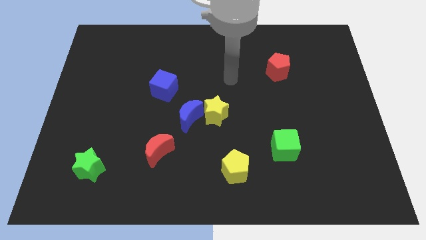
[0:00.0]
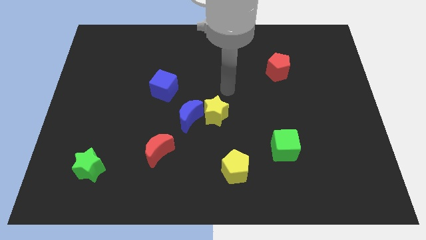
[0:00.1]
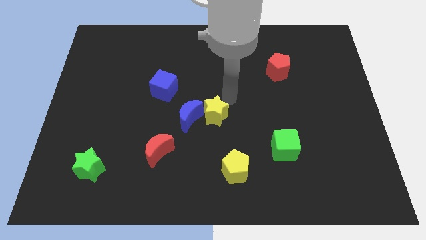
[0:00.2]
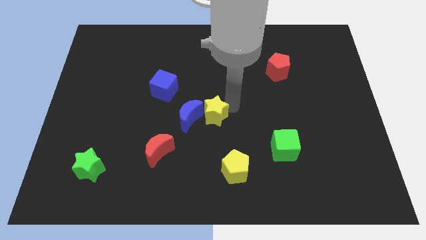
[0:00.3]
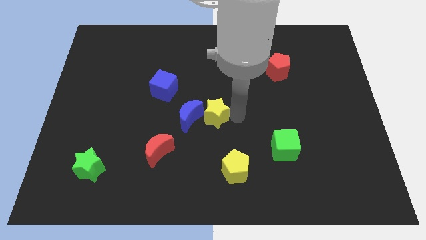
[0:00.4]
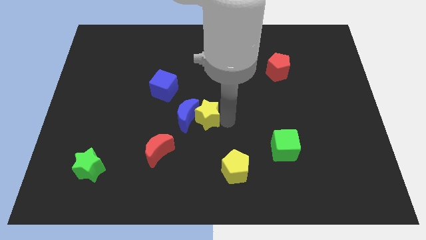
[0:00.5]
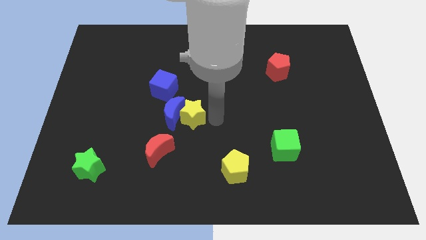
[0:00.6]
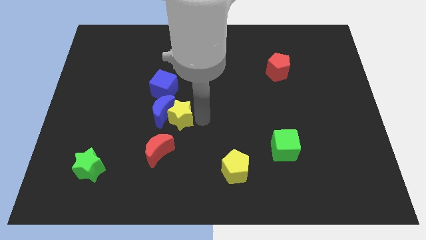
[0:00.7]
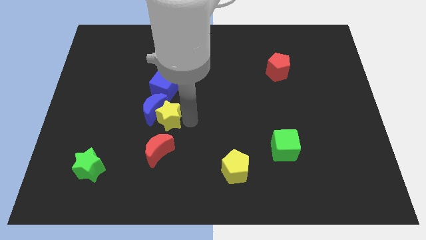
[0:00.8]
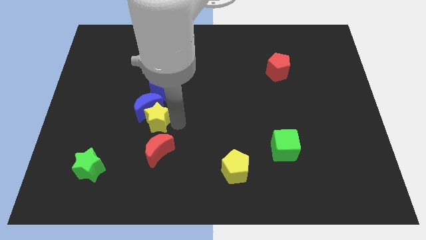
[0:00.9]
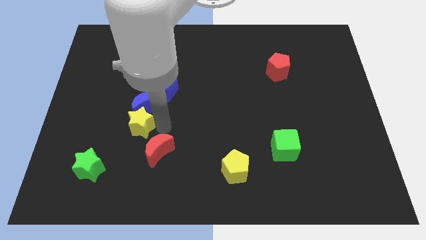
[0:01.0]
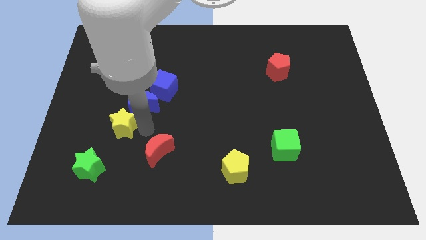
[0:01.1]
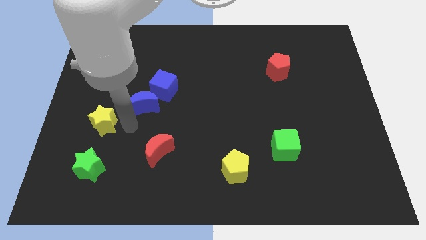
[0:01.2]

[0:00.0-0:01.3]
move the blue moon away from the yellow star

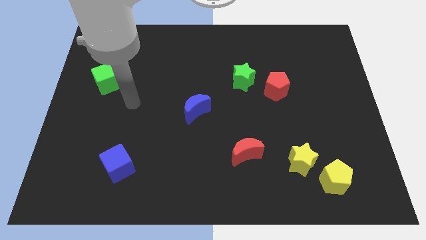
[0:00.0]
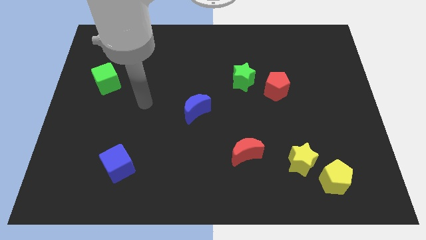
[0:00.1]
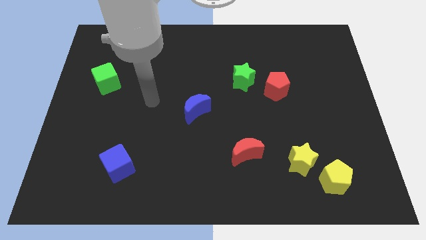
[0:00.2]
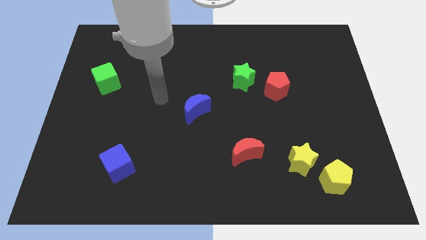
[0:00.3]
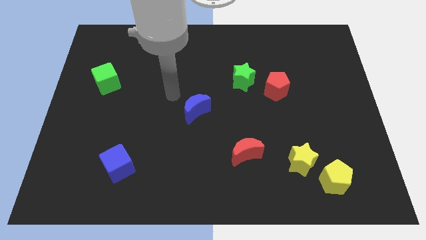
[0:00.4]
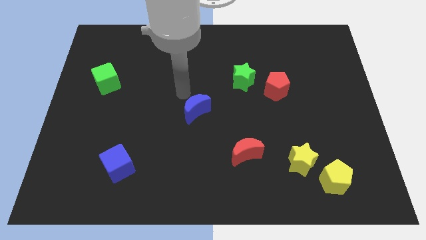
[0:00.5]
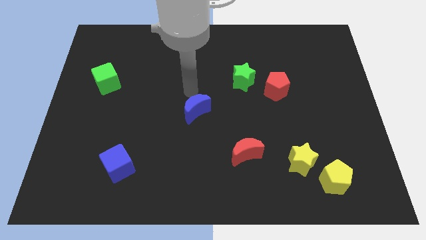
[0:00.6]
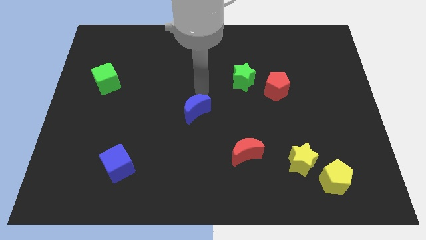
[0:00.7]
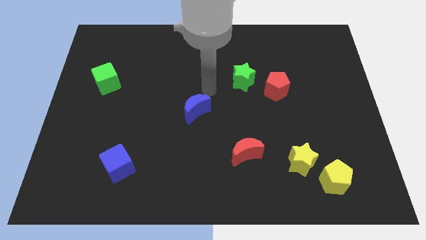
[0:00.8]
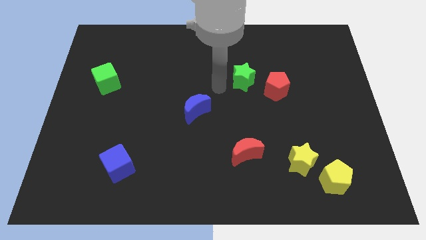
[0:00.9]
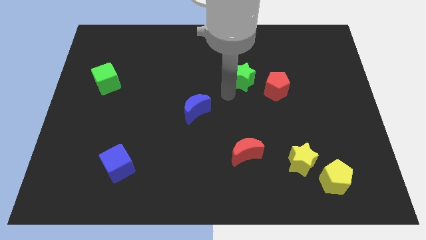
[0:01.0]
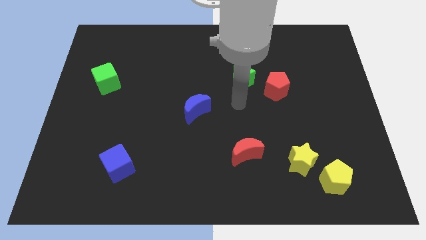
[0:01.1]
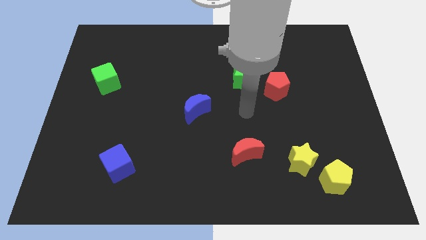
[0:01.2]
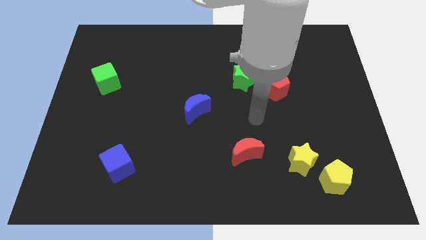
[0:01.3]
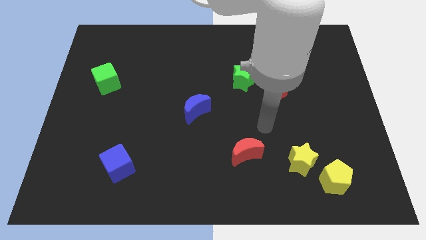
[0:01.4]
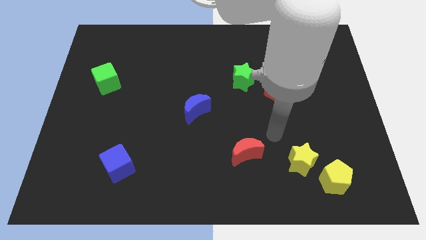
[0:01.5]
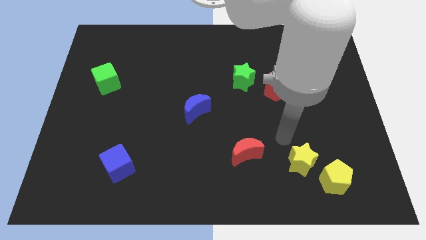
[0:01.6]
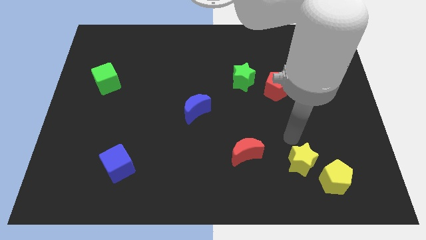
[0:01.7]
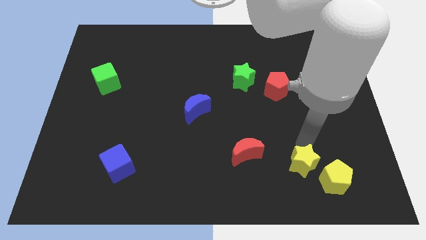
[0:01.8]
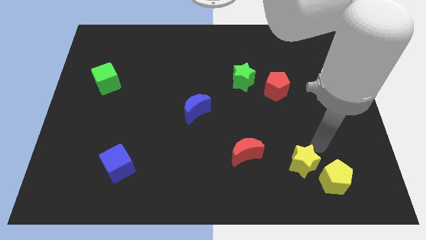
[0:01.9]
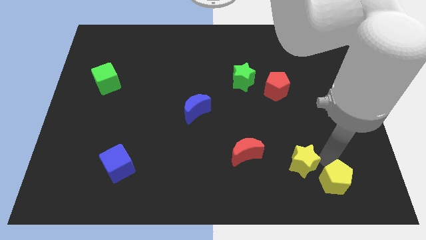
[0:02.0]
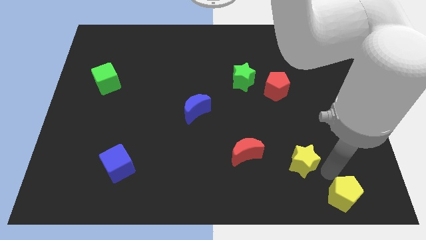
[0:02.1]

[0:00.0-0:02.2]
move the yellow star away from the yellow pentagon

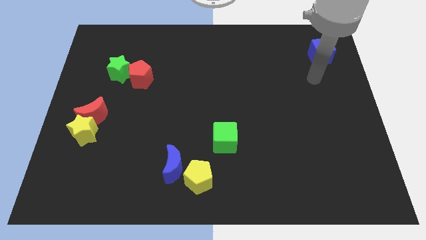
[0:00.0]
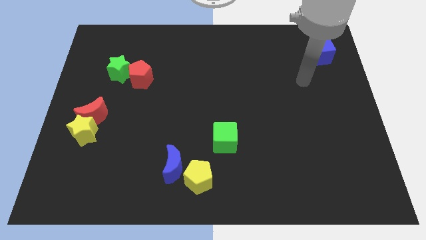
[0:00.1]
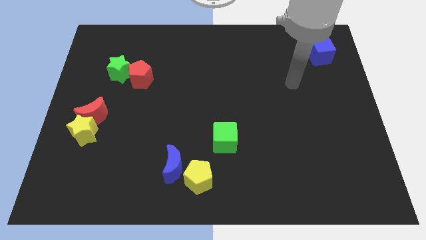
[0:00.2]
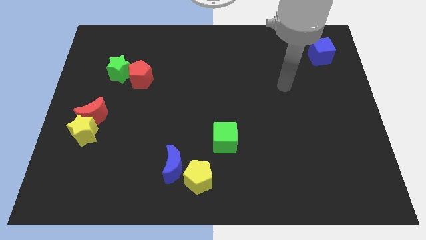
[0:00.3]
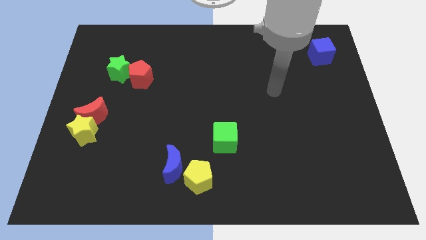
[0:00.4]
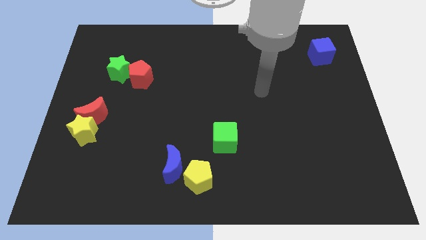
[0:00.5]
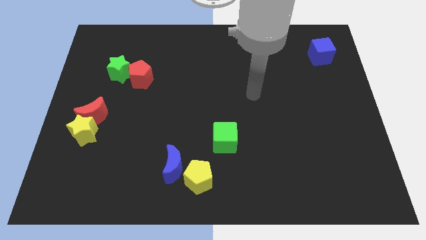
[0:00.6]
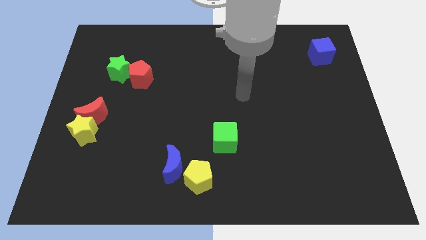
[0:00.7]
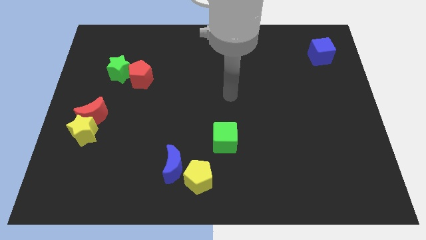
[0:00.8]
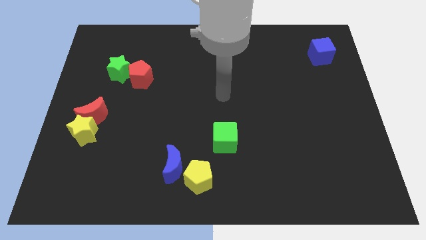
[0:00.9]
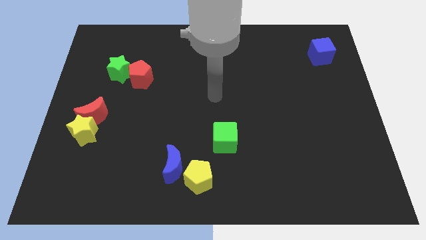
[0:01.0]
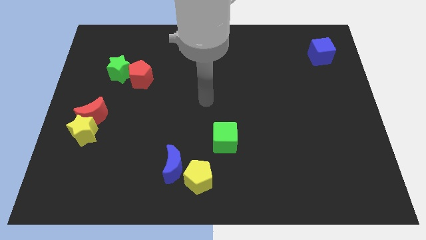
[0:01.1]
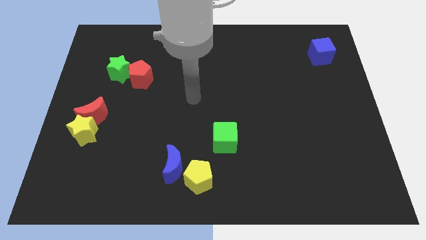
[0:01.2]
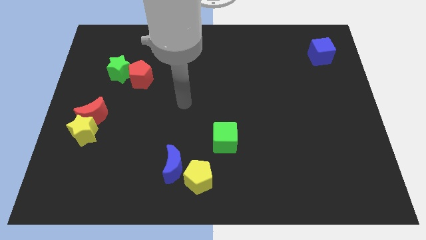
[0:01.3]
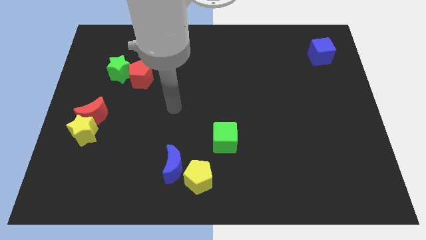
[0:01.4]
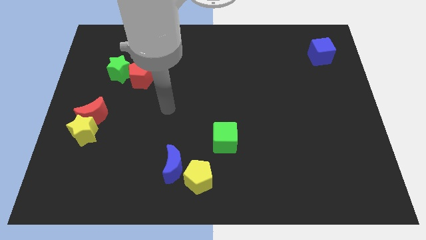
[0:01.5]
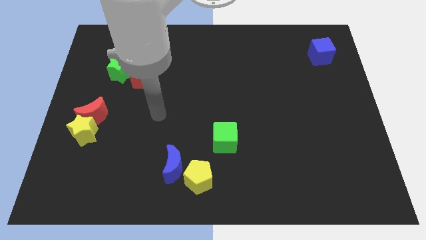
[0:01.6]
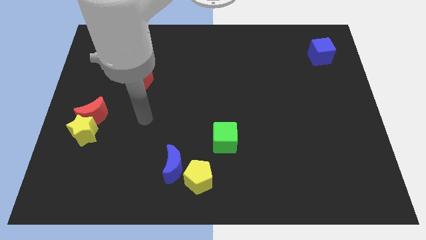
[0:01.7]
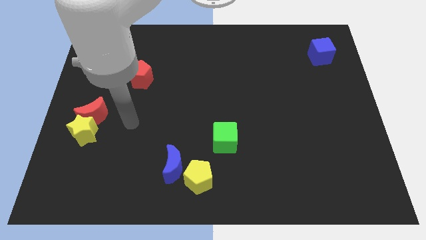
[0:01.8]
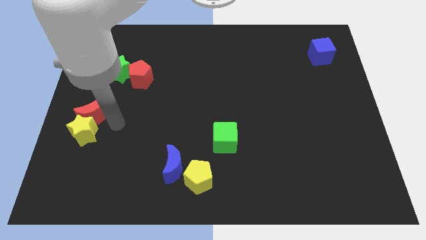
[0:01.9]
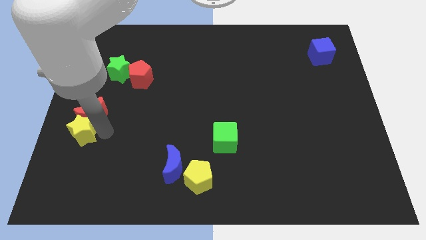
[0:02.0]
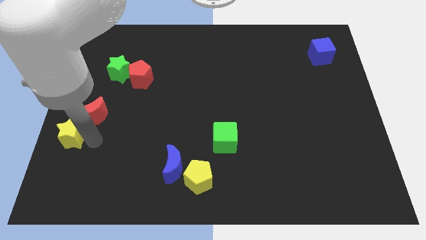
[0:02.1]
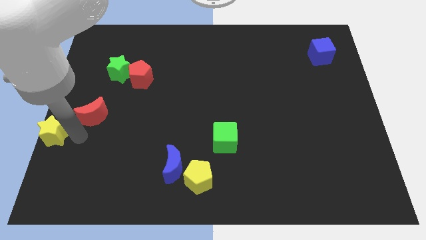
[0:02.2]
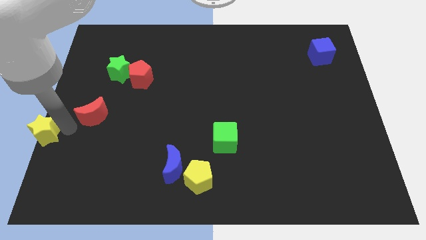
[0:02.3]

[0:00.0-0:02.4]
separate the red moon from the yellow star

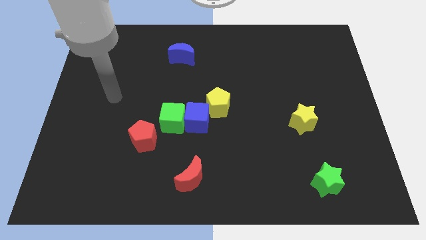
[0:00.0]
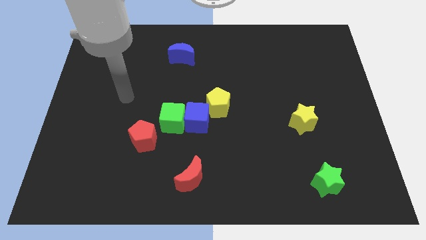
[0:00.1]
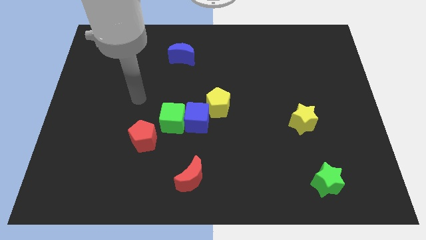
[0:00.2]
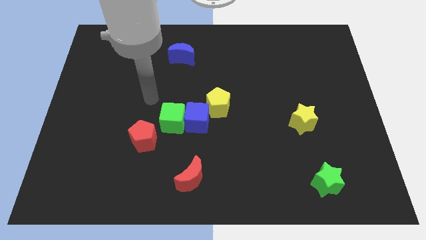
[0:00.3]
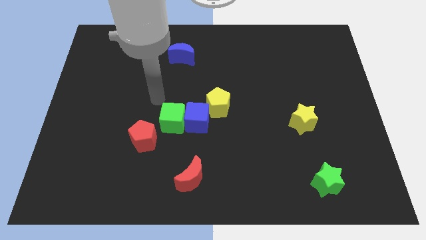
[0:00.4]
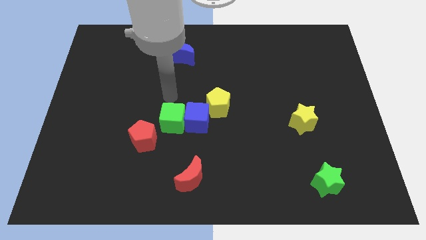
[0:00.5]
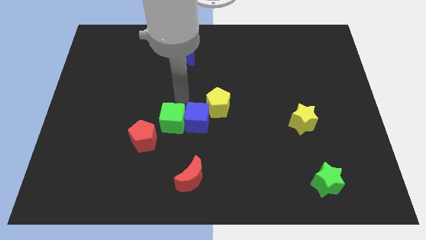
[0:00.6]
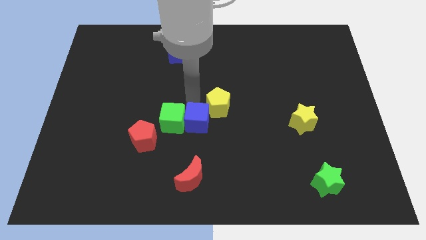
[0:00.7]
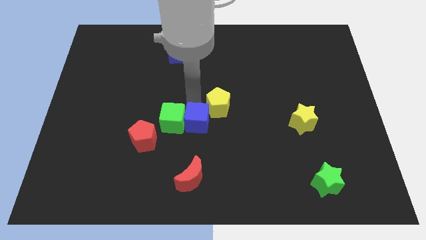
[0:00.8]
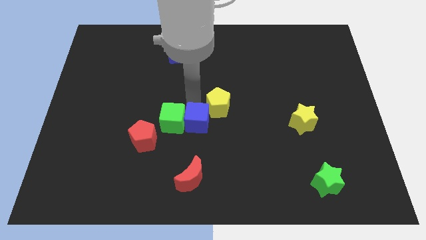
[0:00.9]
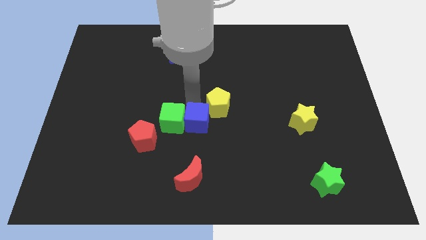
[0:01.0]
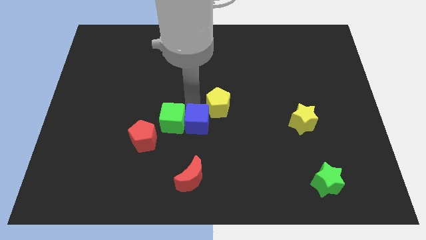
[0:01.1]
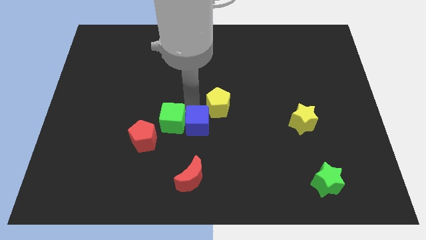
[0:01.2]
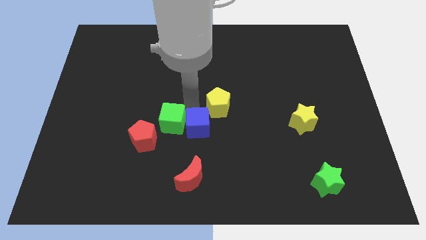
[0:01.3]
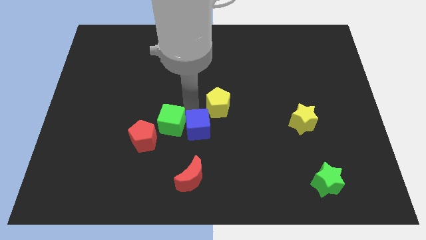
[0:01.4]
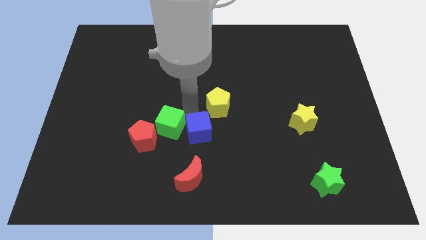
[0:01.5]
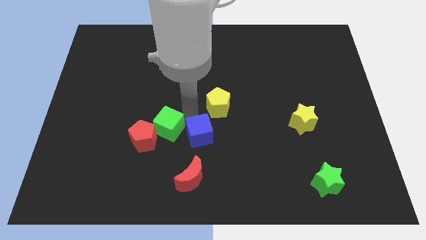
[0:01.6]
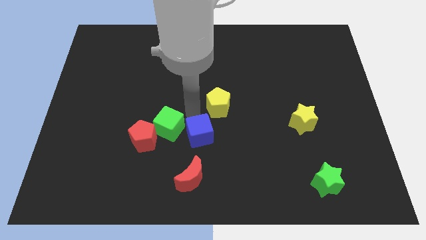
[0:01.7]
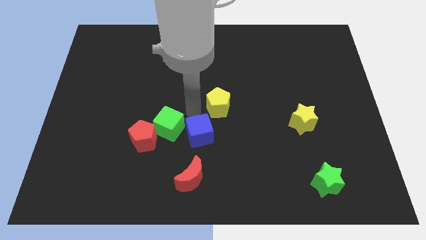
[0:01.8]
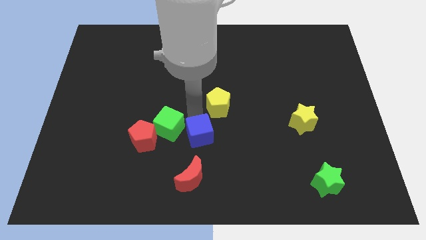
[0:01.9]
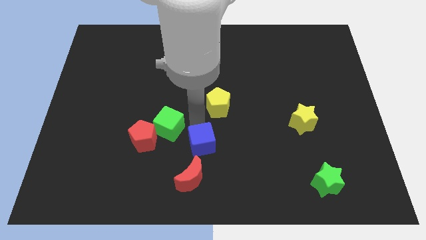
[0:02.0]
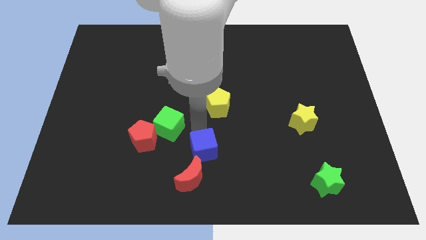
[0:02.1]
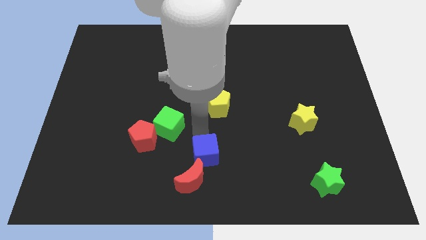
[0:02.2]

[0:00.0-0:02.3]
pull the blue cube apart from the green cube and yellow pentagon

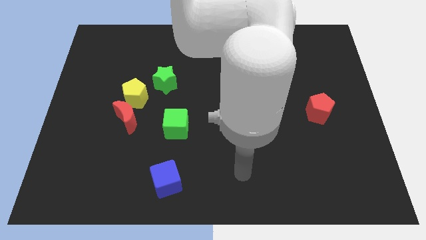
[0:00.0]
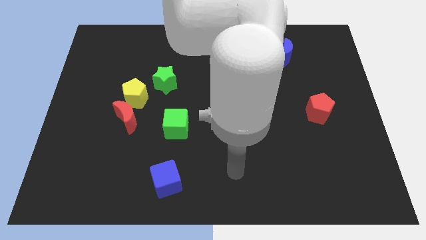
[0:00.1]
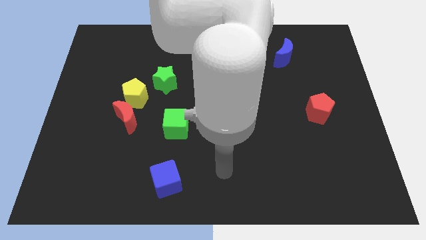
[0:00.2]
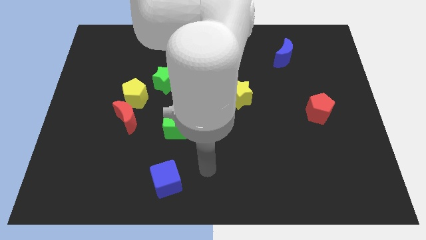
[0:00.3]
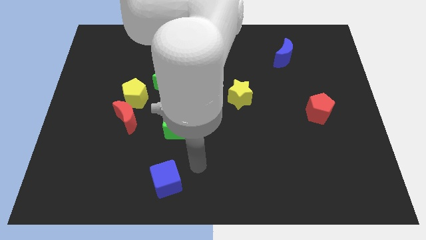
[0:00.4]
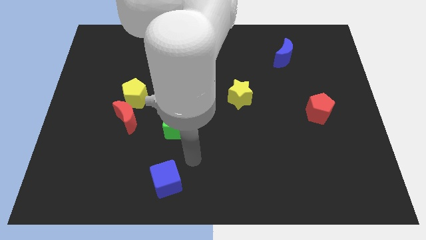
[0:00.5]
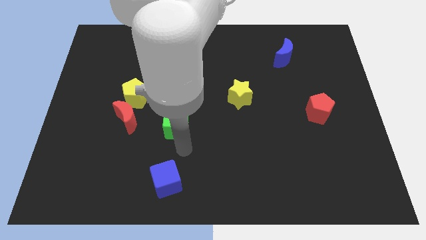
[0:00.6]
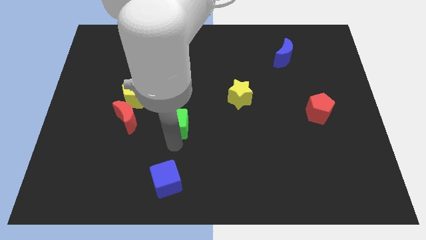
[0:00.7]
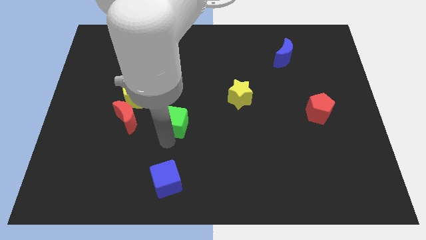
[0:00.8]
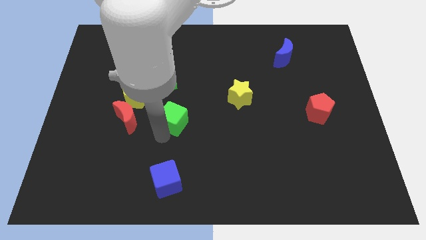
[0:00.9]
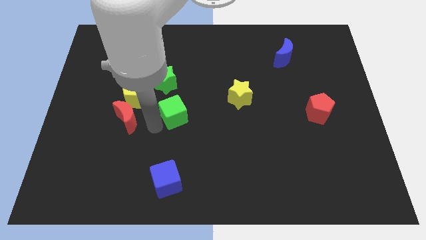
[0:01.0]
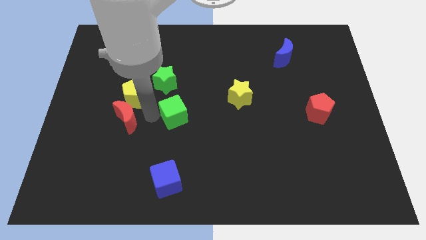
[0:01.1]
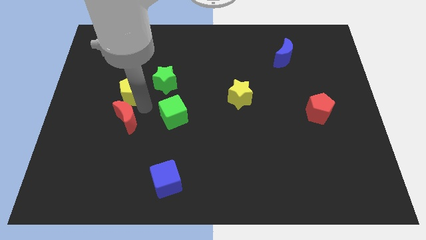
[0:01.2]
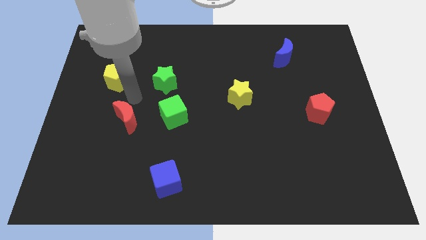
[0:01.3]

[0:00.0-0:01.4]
pull the red moon apart from the yellow pentagon
